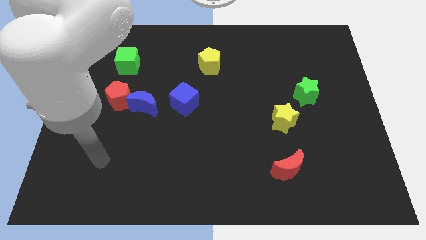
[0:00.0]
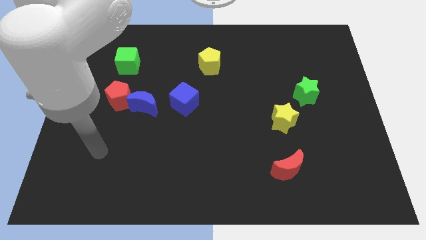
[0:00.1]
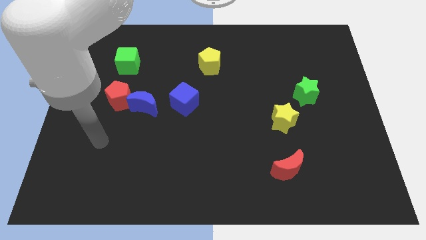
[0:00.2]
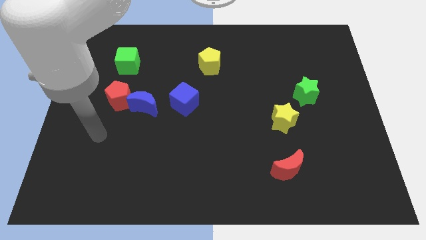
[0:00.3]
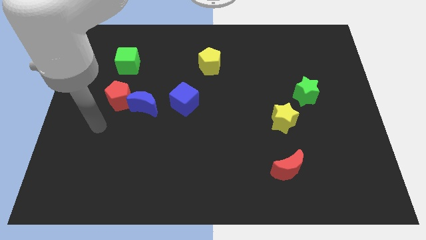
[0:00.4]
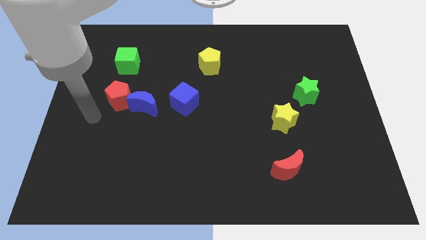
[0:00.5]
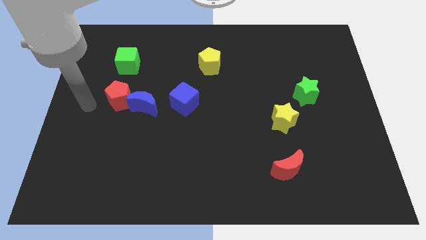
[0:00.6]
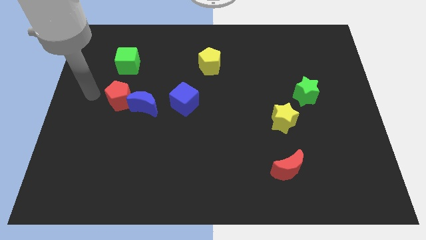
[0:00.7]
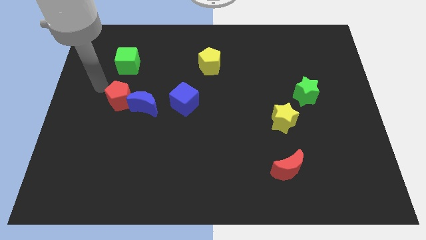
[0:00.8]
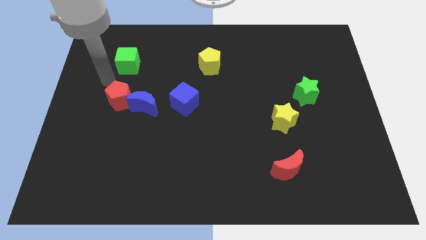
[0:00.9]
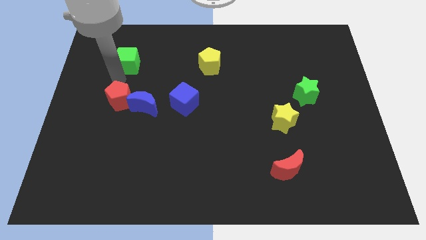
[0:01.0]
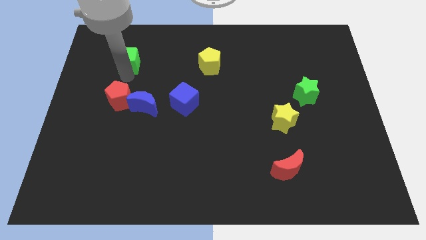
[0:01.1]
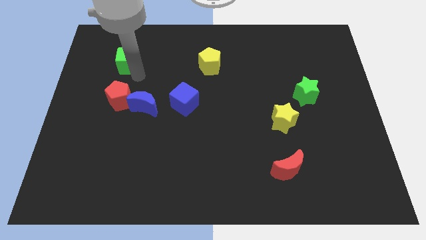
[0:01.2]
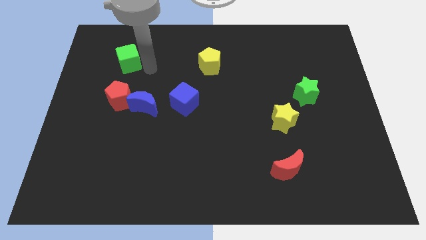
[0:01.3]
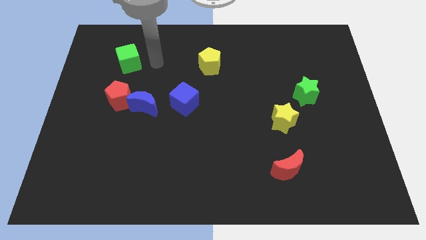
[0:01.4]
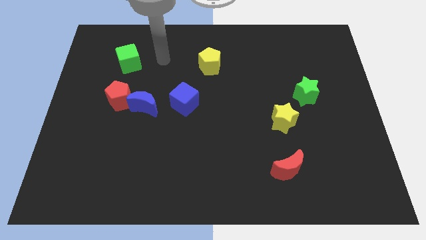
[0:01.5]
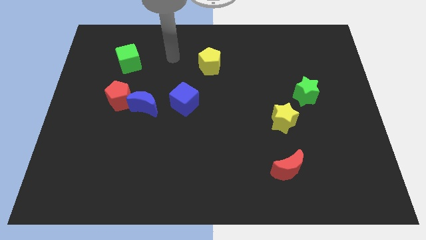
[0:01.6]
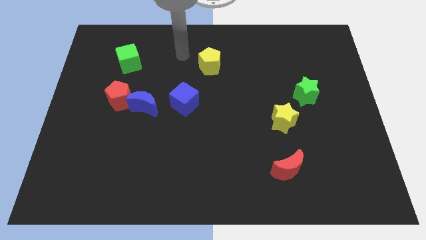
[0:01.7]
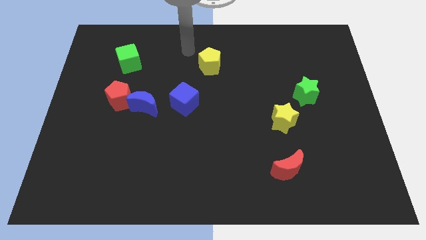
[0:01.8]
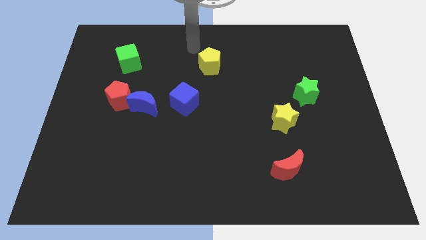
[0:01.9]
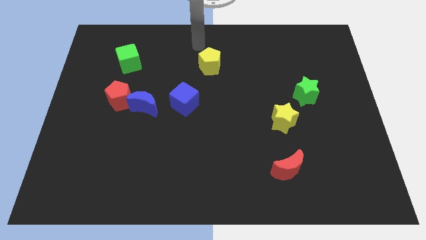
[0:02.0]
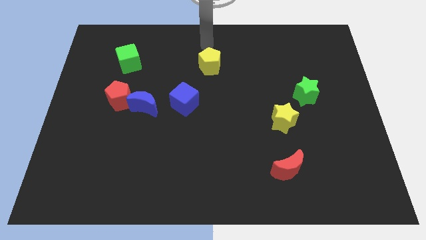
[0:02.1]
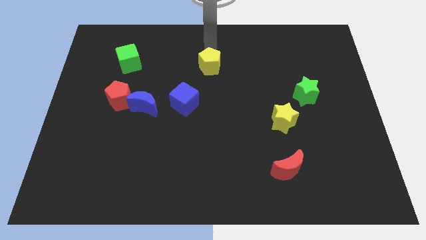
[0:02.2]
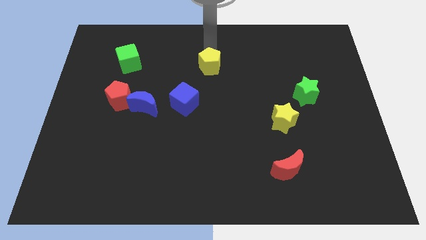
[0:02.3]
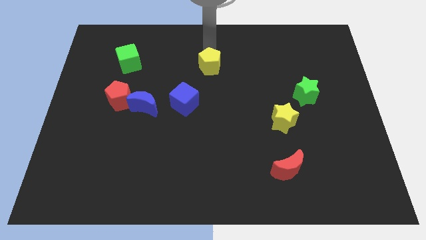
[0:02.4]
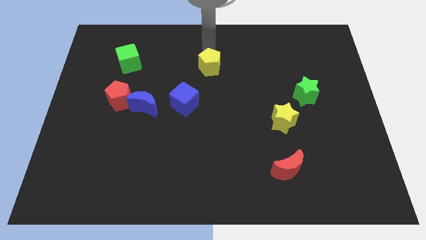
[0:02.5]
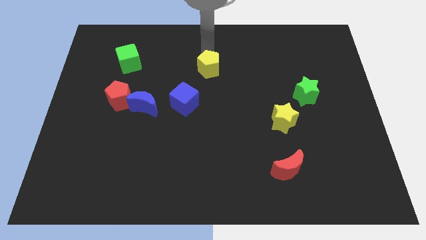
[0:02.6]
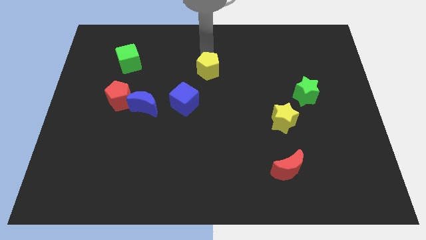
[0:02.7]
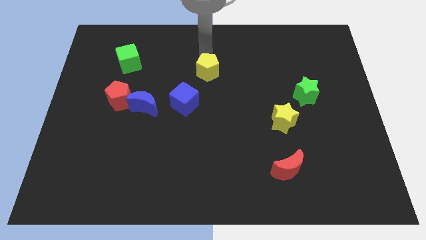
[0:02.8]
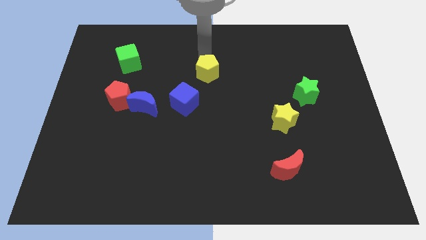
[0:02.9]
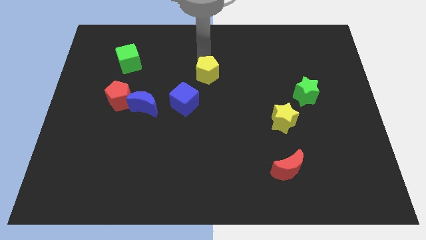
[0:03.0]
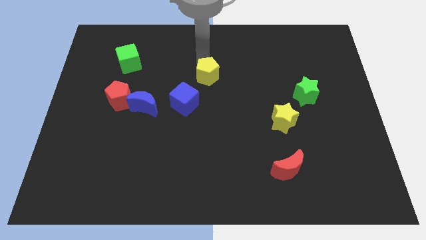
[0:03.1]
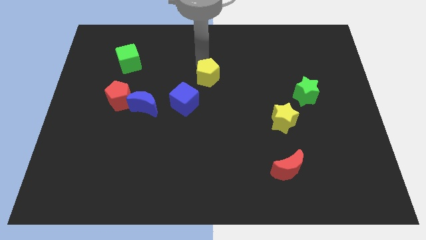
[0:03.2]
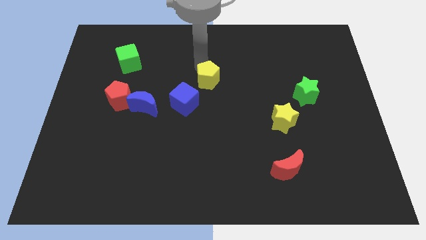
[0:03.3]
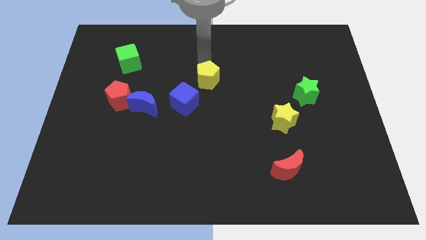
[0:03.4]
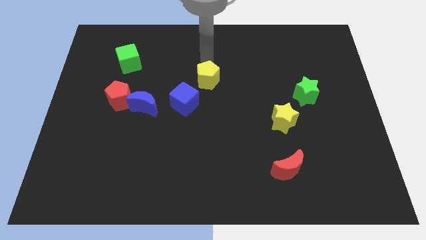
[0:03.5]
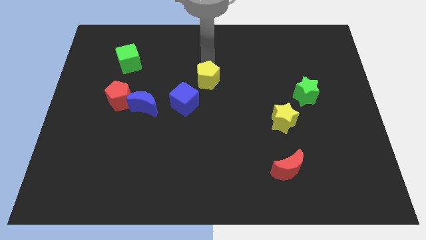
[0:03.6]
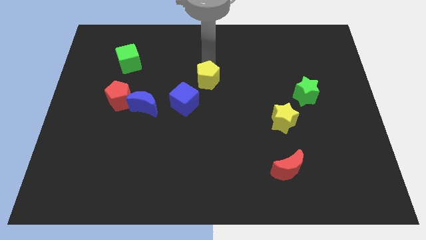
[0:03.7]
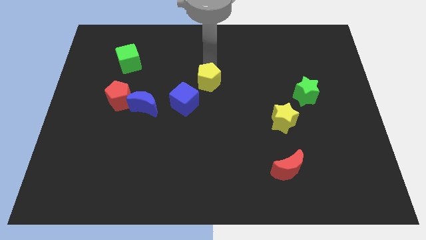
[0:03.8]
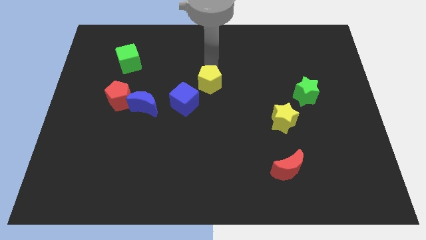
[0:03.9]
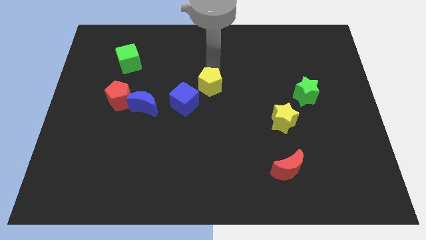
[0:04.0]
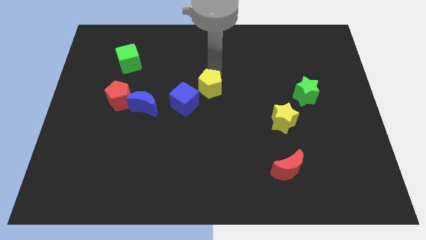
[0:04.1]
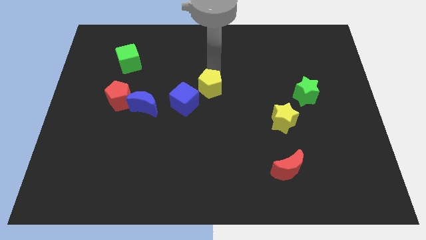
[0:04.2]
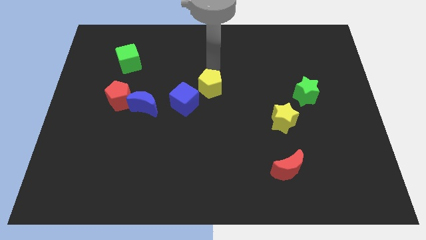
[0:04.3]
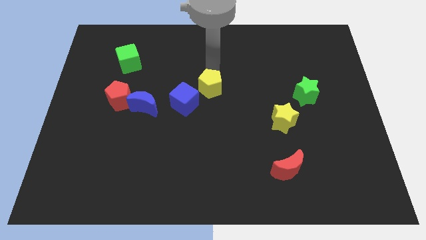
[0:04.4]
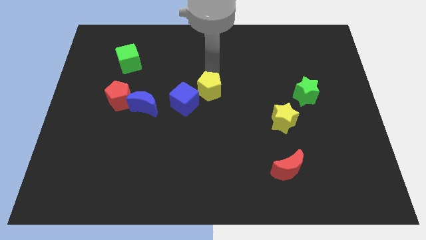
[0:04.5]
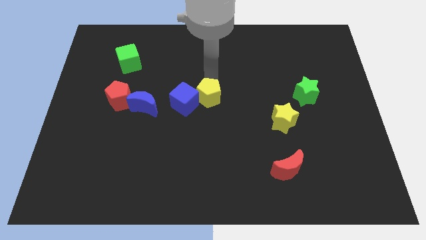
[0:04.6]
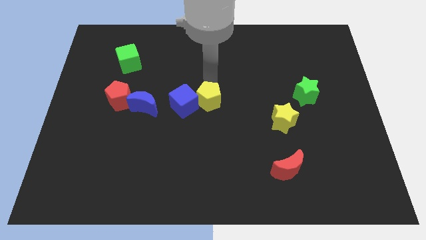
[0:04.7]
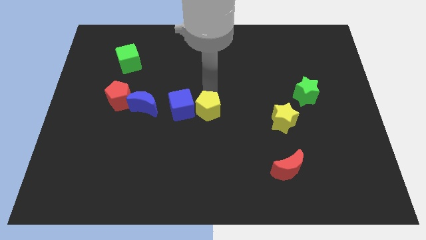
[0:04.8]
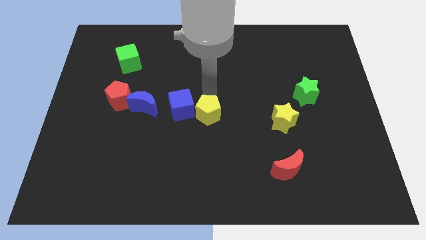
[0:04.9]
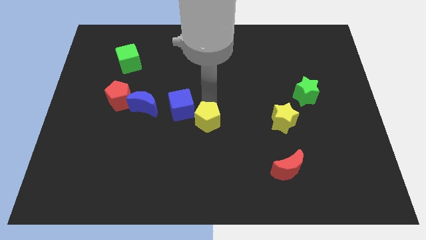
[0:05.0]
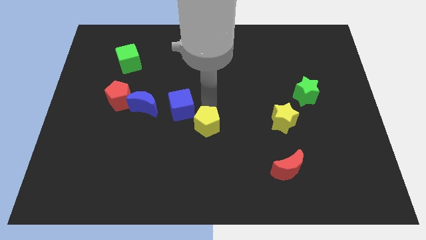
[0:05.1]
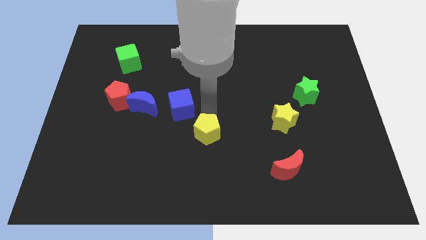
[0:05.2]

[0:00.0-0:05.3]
push the yellow pentagon downwards

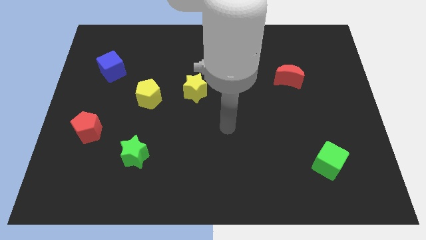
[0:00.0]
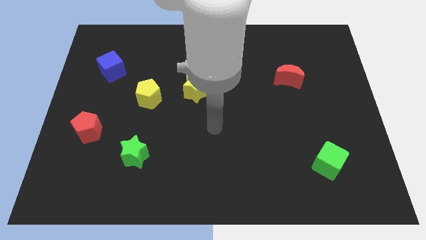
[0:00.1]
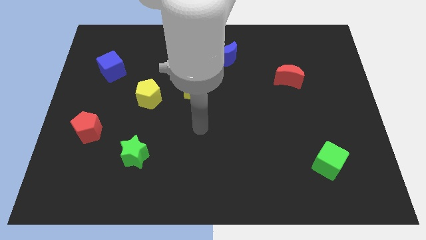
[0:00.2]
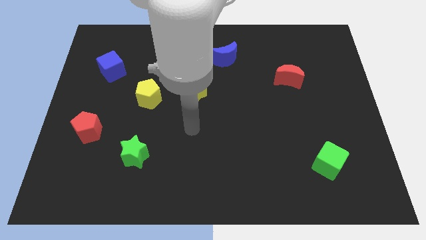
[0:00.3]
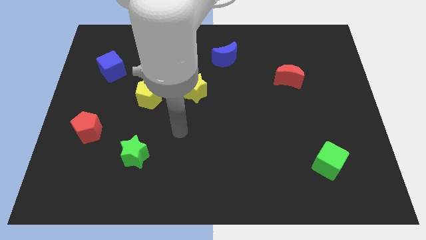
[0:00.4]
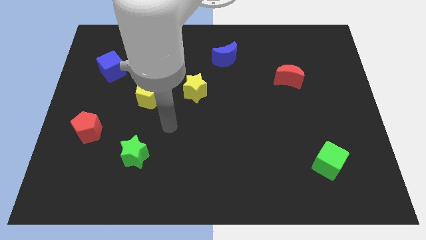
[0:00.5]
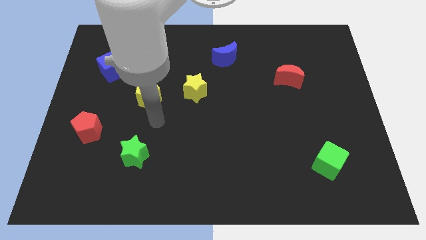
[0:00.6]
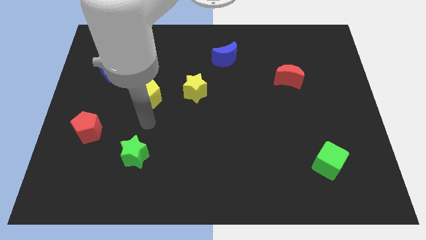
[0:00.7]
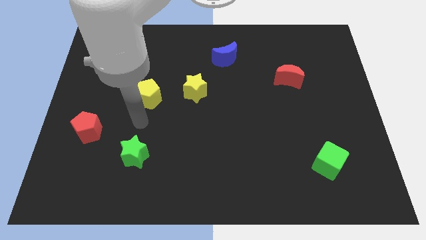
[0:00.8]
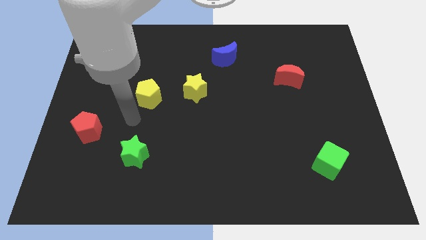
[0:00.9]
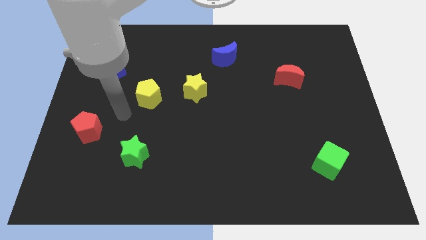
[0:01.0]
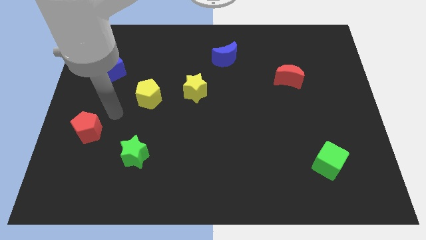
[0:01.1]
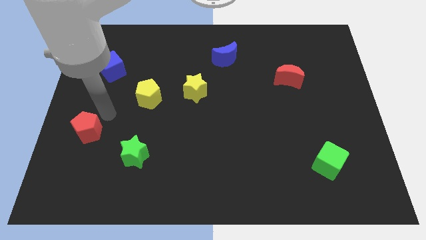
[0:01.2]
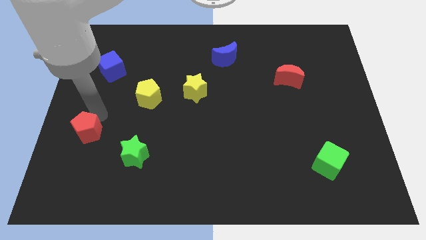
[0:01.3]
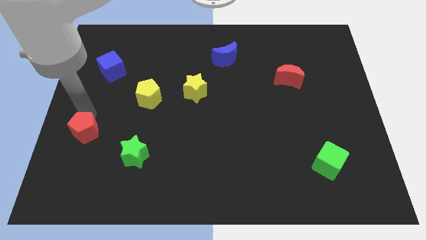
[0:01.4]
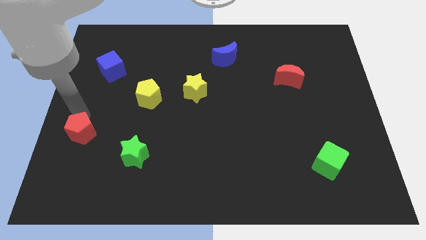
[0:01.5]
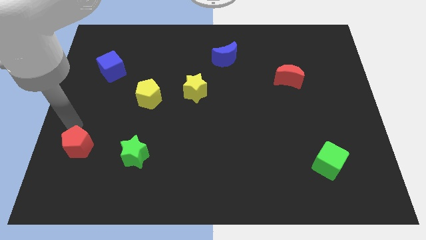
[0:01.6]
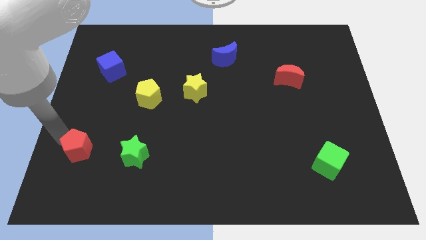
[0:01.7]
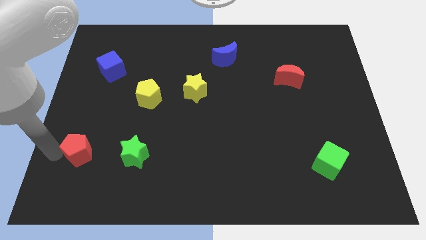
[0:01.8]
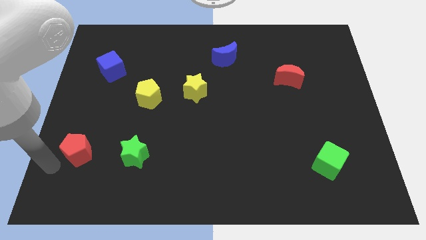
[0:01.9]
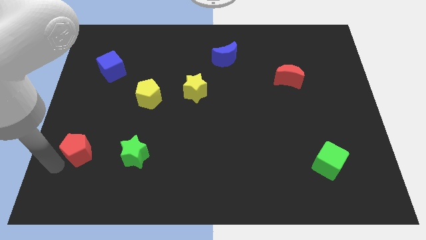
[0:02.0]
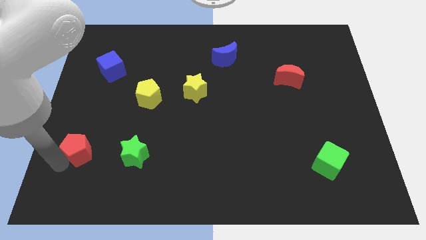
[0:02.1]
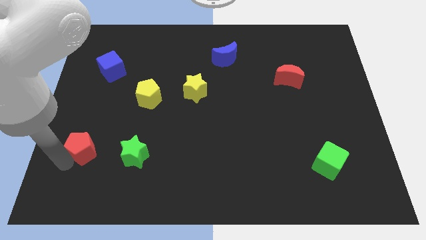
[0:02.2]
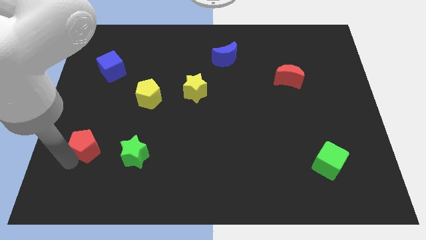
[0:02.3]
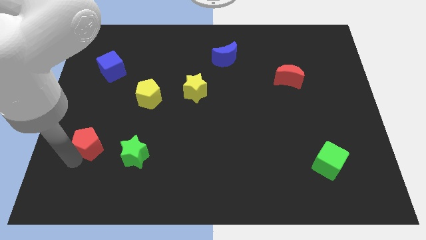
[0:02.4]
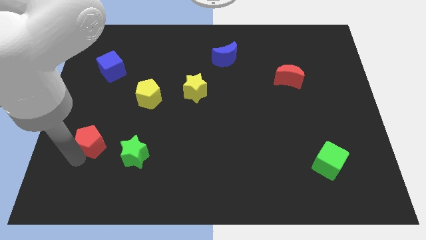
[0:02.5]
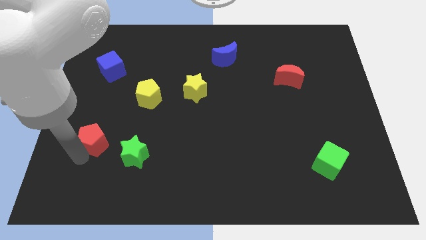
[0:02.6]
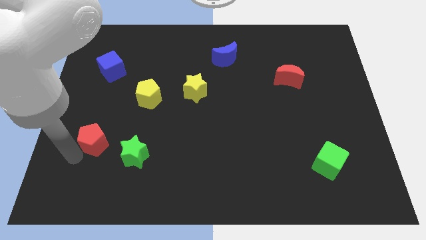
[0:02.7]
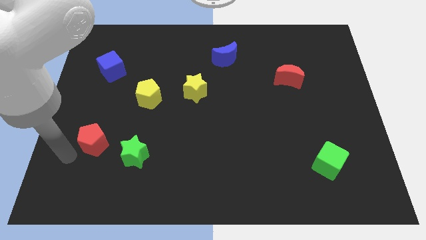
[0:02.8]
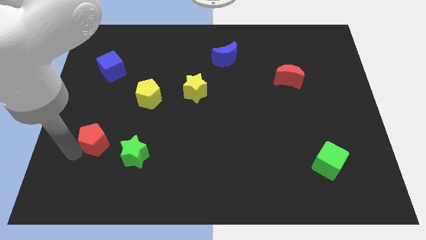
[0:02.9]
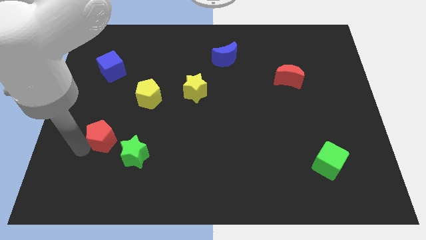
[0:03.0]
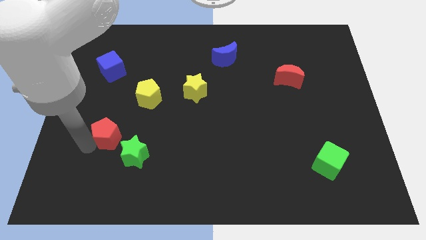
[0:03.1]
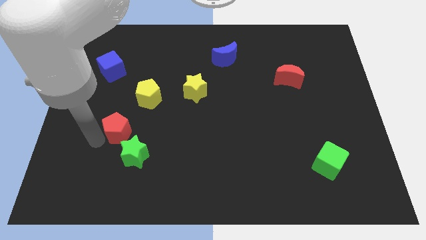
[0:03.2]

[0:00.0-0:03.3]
slightly push the red pentagon to the right
